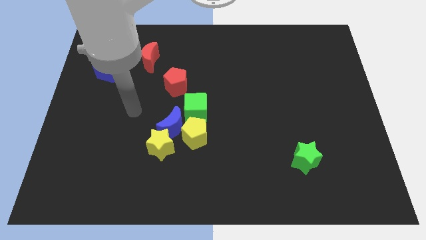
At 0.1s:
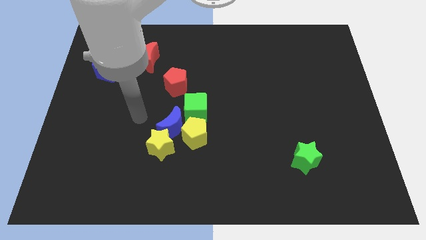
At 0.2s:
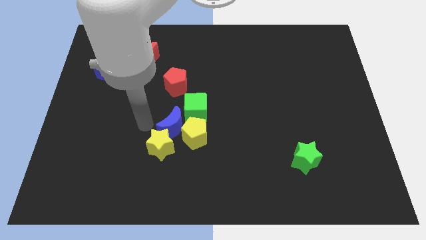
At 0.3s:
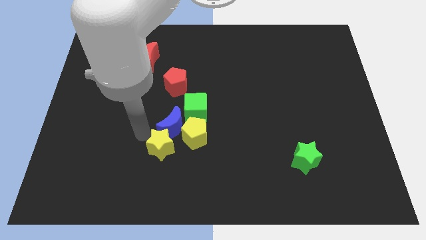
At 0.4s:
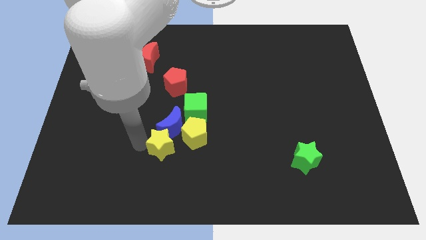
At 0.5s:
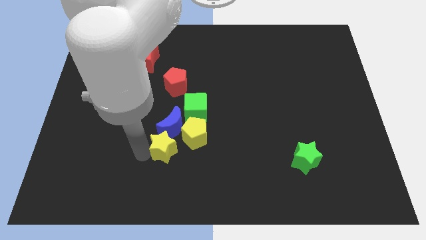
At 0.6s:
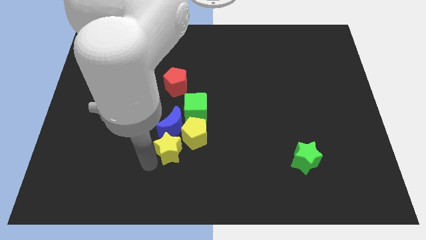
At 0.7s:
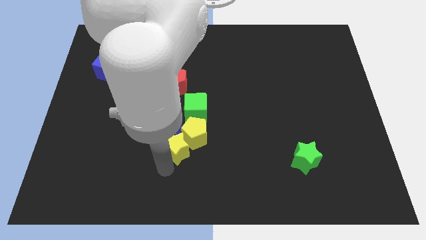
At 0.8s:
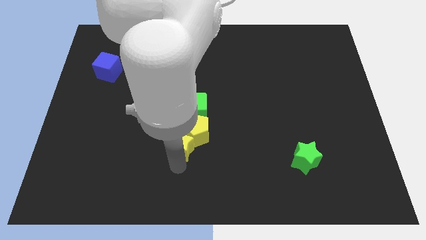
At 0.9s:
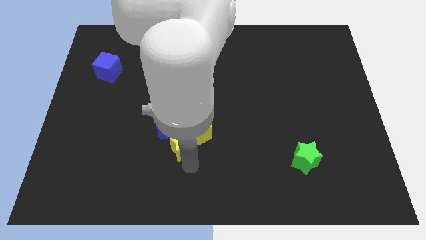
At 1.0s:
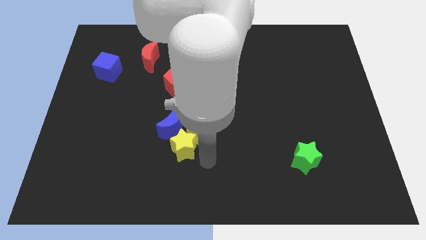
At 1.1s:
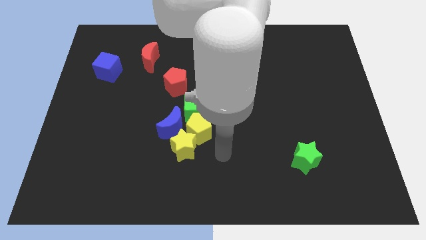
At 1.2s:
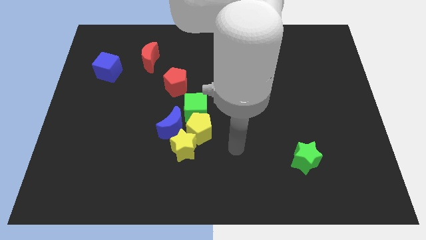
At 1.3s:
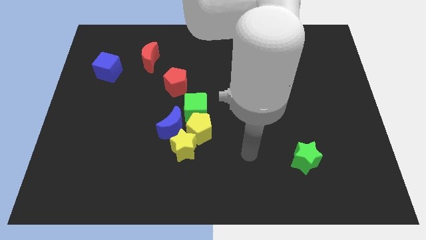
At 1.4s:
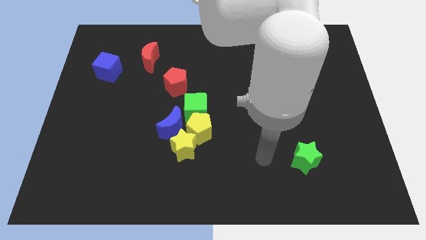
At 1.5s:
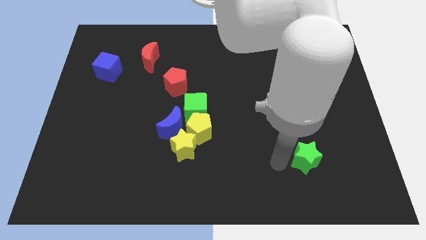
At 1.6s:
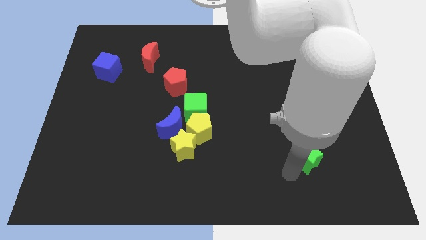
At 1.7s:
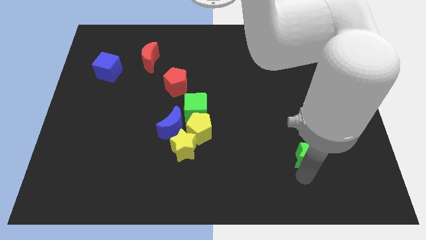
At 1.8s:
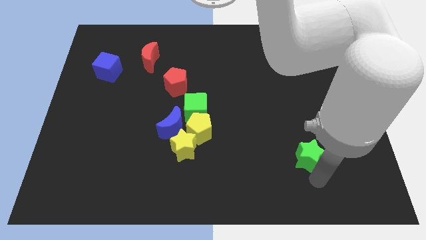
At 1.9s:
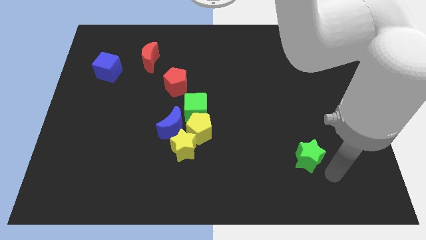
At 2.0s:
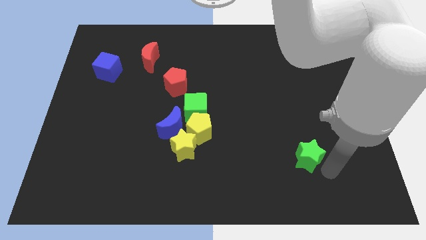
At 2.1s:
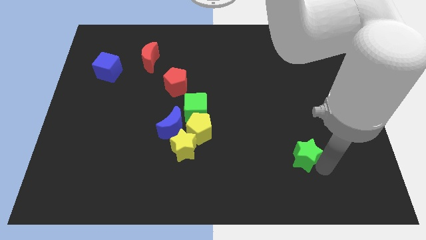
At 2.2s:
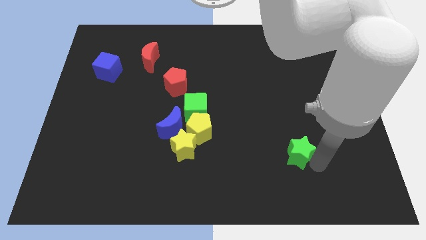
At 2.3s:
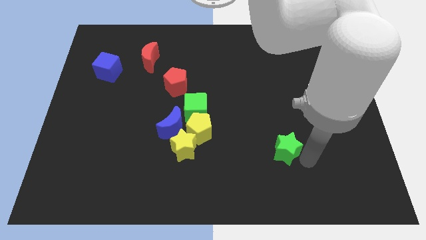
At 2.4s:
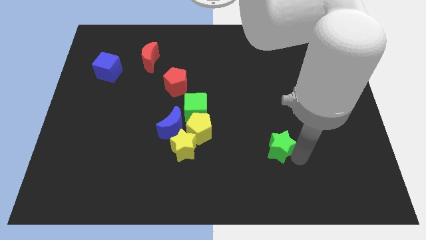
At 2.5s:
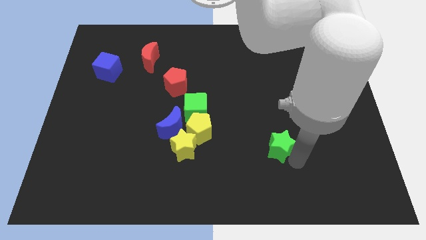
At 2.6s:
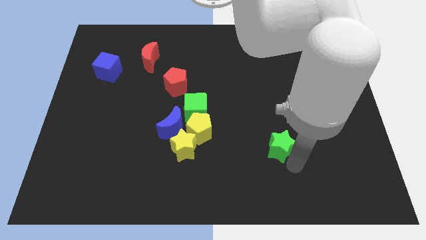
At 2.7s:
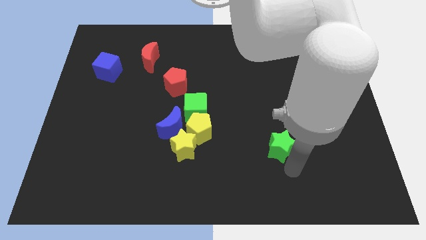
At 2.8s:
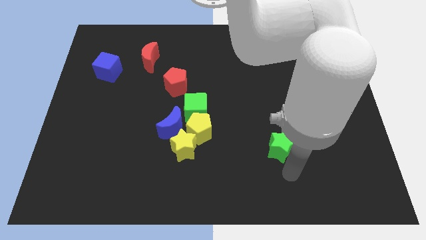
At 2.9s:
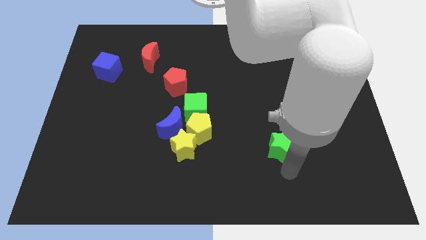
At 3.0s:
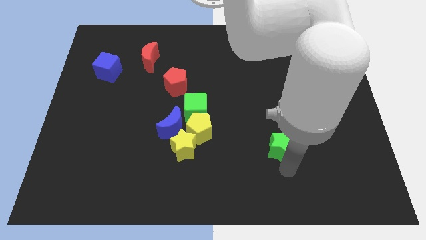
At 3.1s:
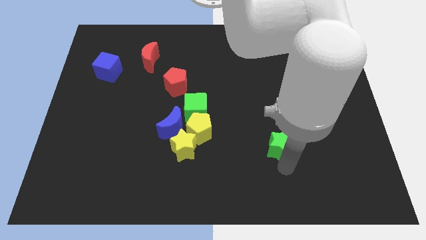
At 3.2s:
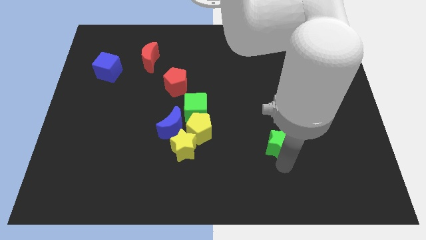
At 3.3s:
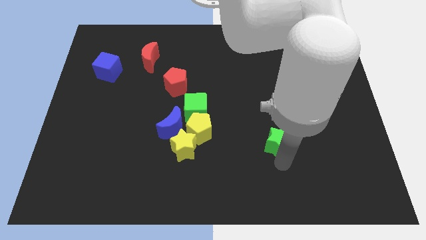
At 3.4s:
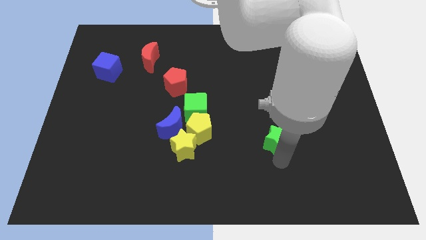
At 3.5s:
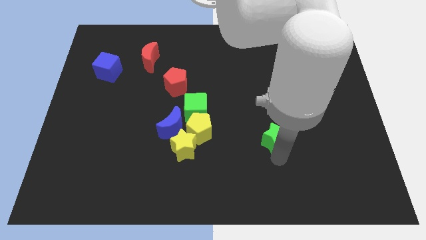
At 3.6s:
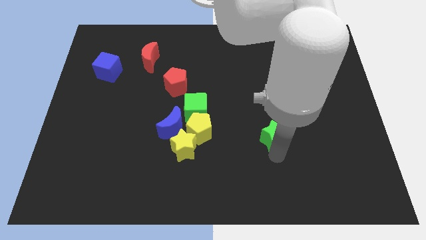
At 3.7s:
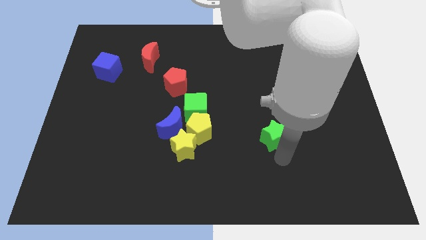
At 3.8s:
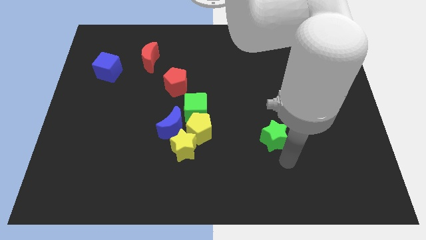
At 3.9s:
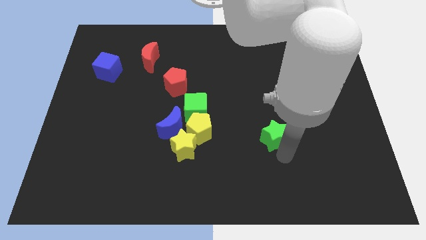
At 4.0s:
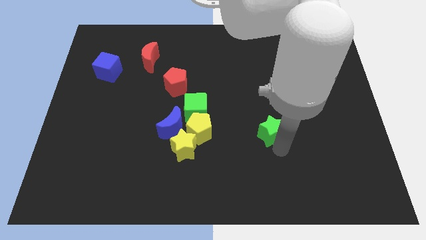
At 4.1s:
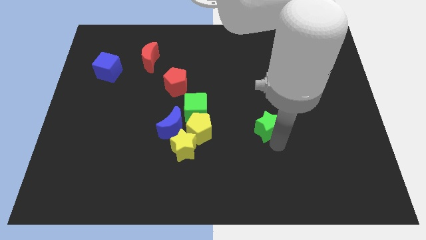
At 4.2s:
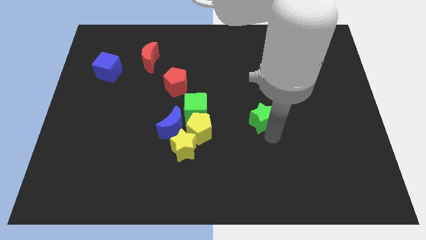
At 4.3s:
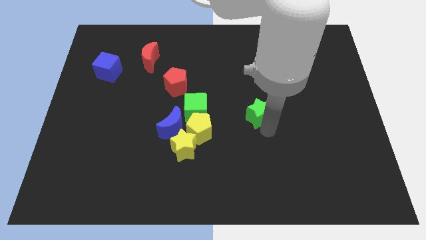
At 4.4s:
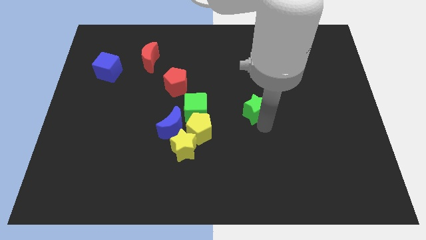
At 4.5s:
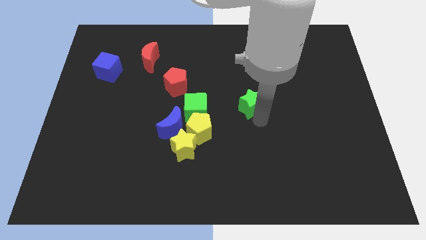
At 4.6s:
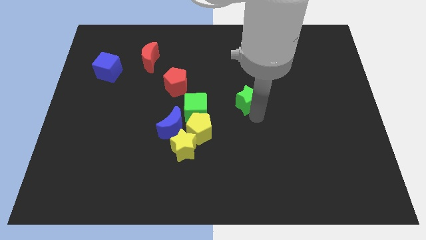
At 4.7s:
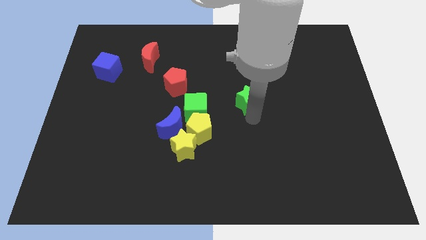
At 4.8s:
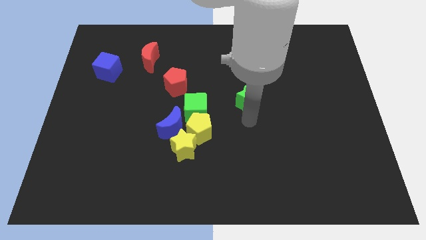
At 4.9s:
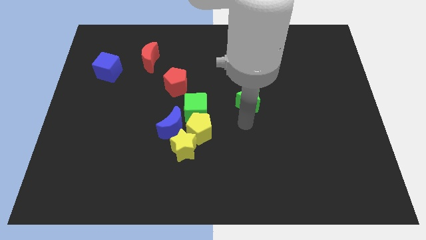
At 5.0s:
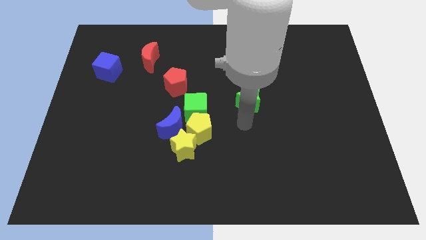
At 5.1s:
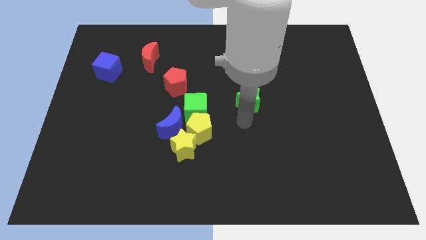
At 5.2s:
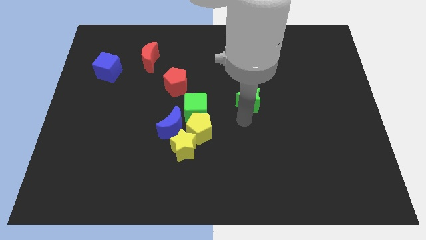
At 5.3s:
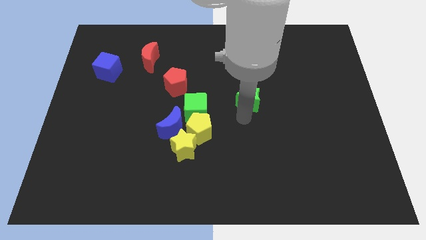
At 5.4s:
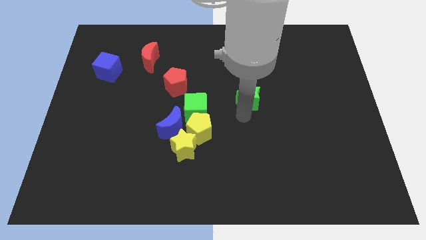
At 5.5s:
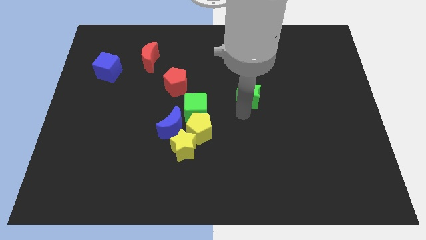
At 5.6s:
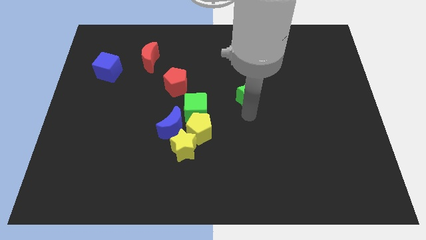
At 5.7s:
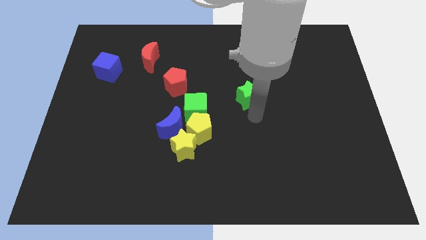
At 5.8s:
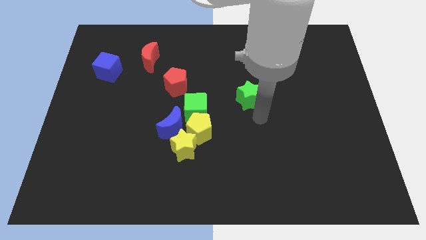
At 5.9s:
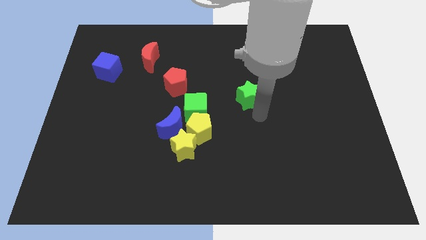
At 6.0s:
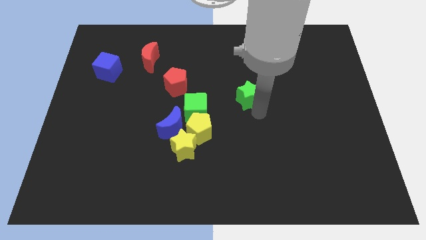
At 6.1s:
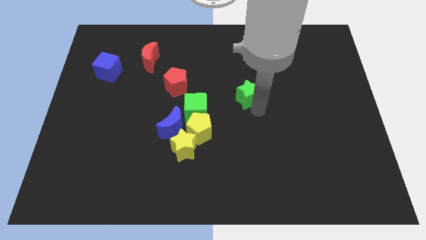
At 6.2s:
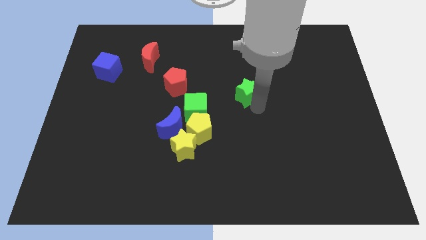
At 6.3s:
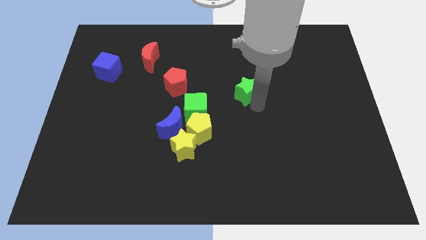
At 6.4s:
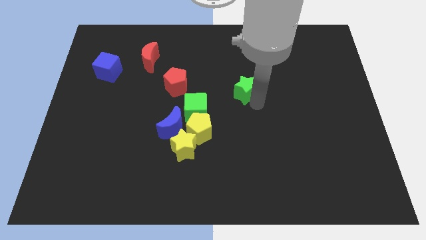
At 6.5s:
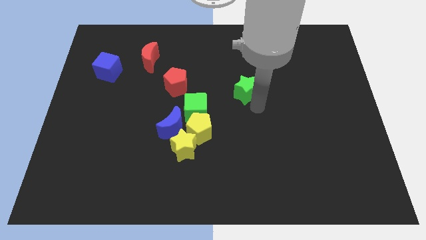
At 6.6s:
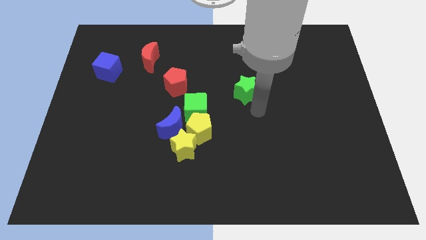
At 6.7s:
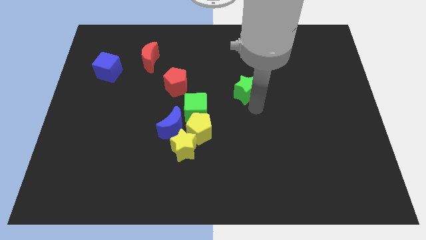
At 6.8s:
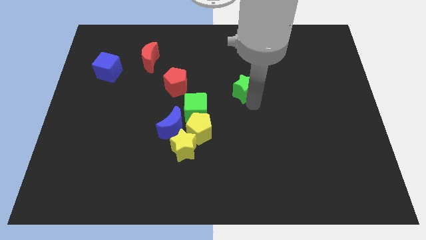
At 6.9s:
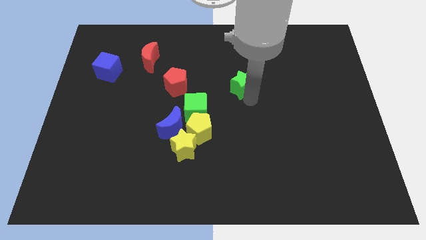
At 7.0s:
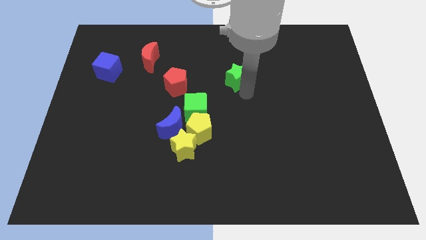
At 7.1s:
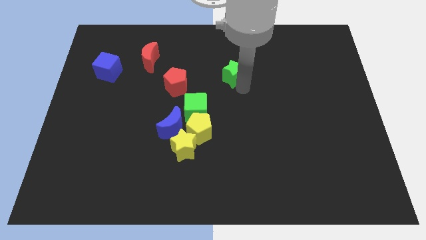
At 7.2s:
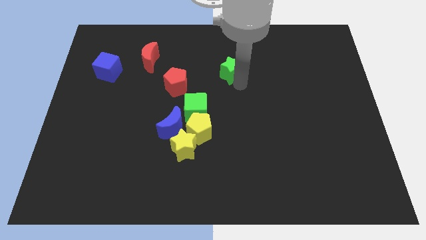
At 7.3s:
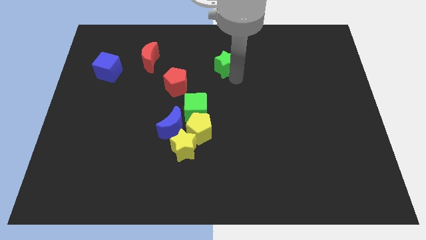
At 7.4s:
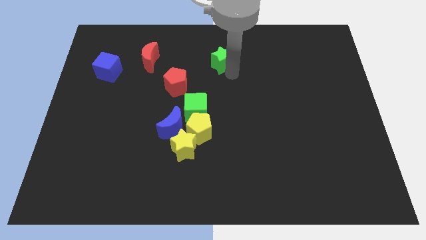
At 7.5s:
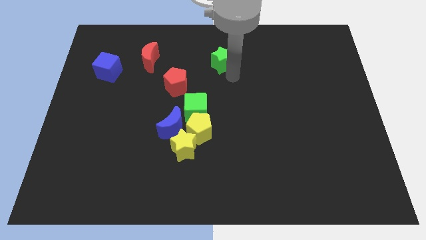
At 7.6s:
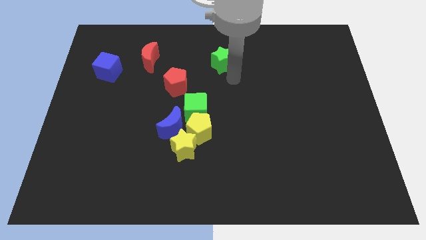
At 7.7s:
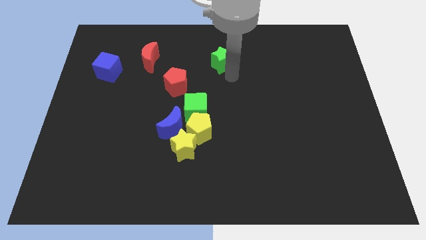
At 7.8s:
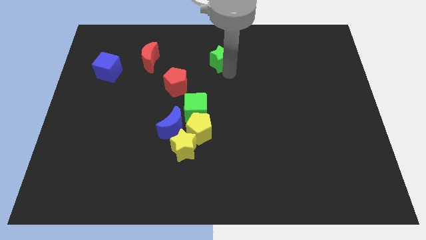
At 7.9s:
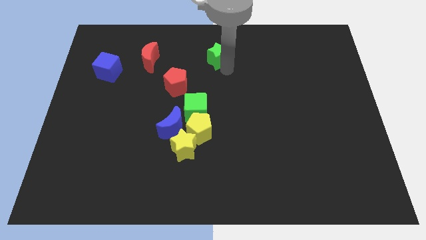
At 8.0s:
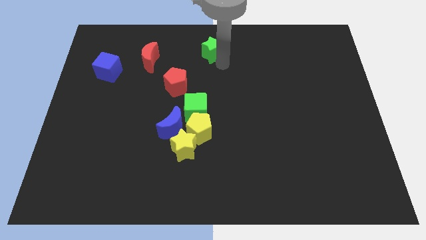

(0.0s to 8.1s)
move the green star to the top side
